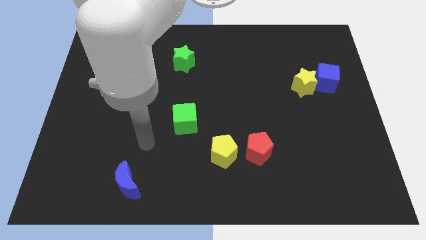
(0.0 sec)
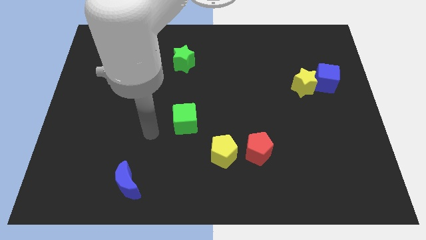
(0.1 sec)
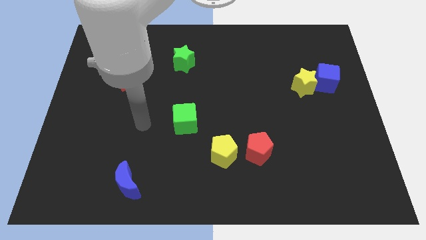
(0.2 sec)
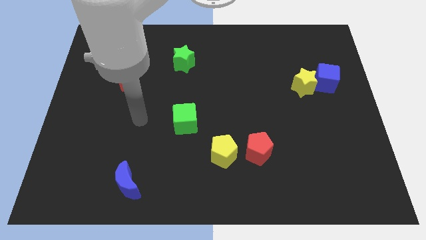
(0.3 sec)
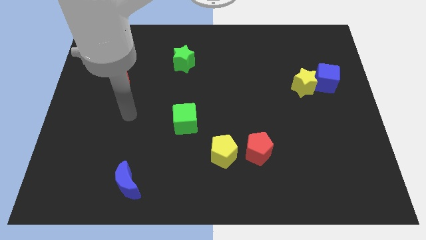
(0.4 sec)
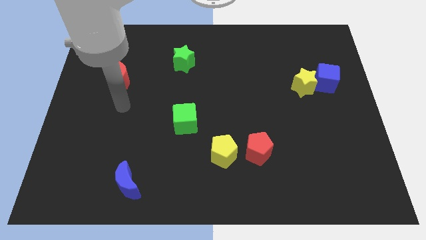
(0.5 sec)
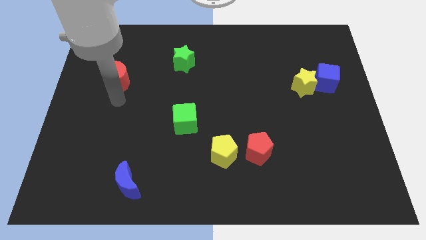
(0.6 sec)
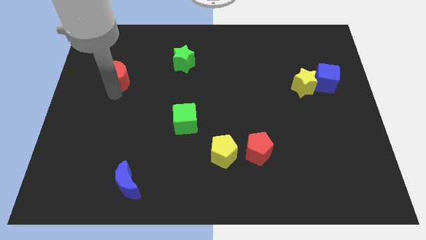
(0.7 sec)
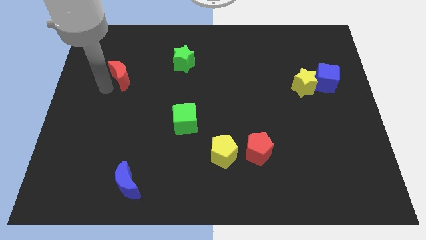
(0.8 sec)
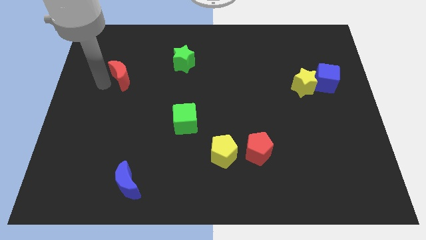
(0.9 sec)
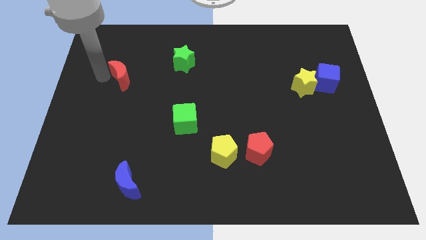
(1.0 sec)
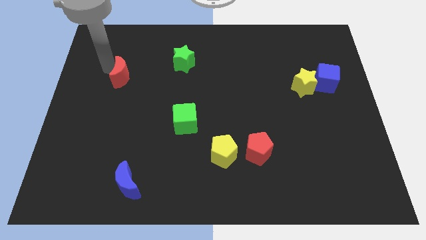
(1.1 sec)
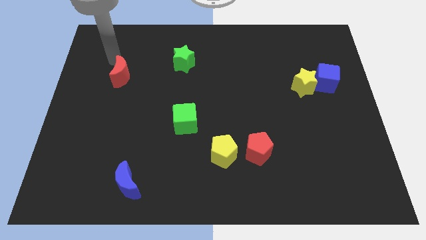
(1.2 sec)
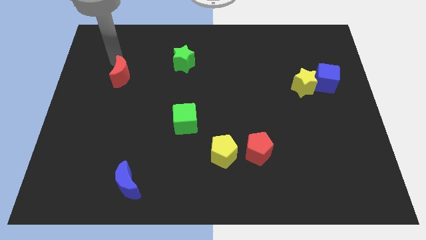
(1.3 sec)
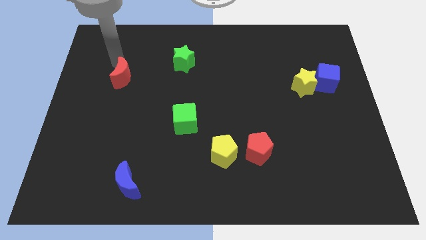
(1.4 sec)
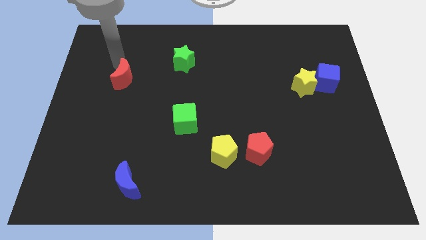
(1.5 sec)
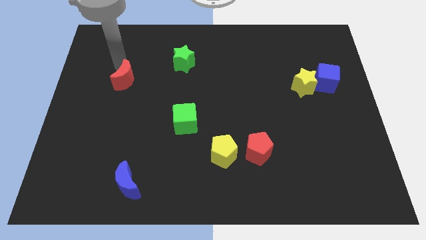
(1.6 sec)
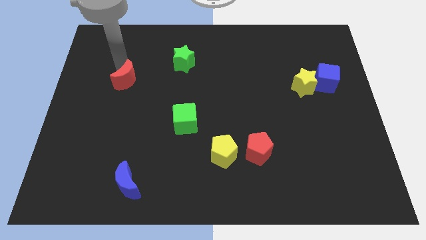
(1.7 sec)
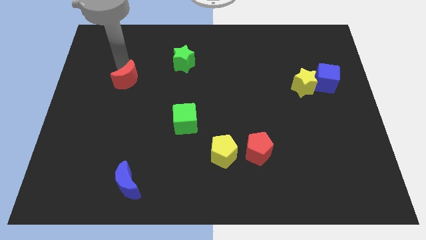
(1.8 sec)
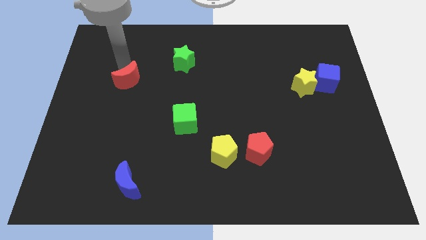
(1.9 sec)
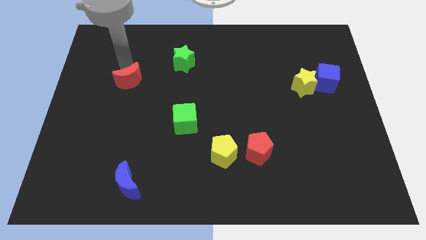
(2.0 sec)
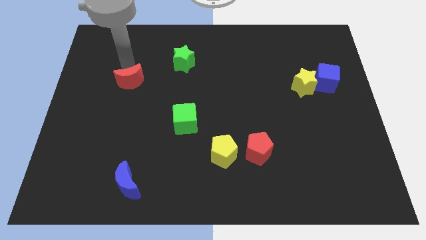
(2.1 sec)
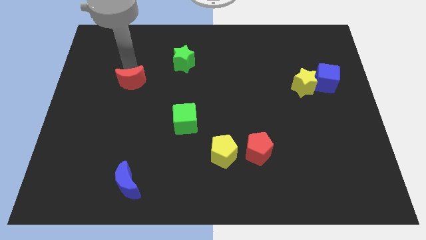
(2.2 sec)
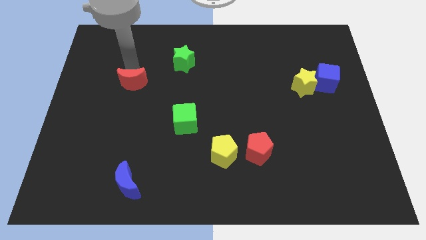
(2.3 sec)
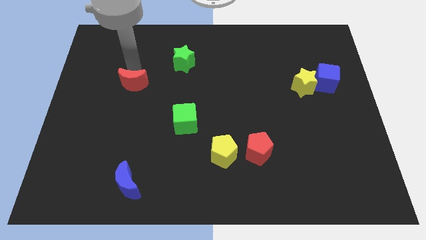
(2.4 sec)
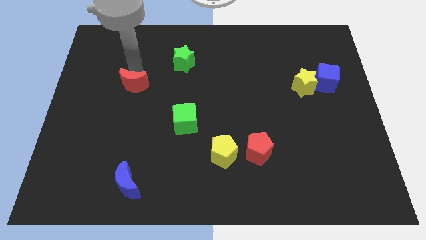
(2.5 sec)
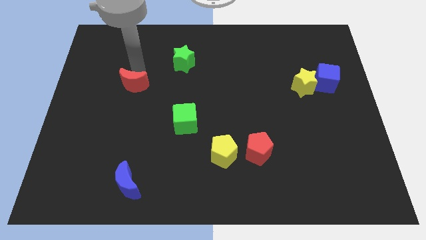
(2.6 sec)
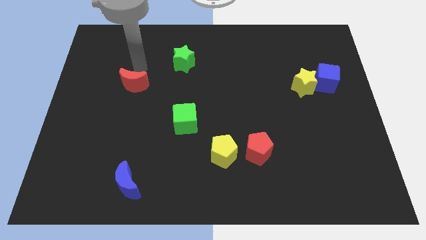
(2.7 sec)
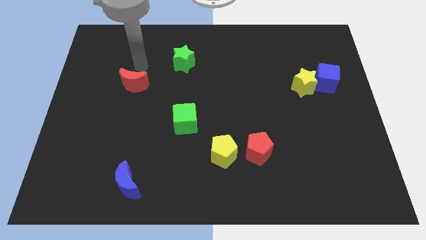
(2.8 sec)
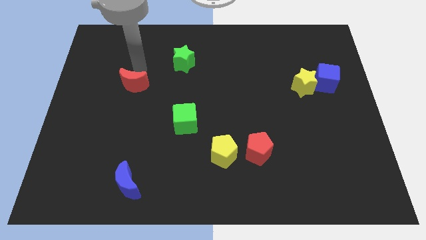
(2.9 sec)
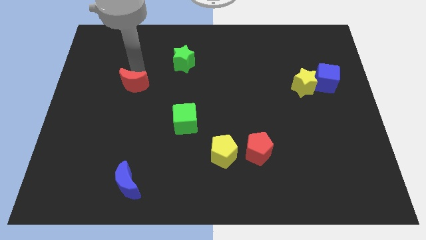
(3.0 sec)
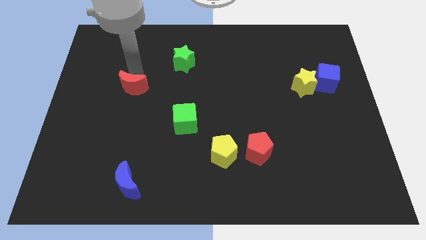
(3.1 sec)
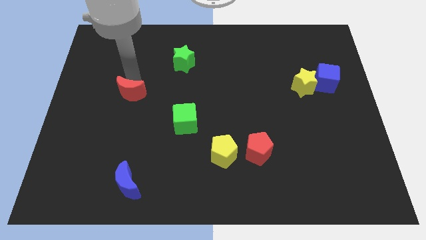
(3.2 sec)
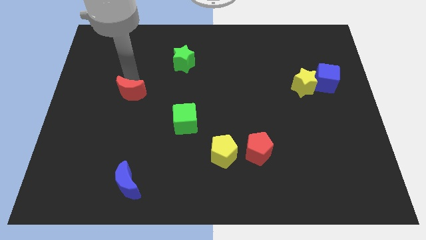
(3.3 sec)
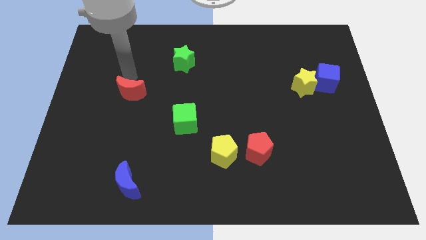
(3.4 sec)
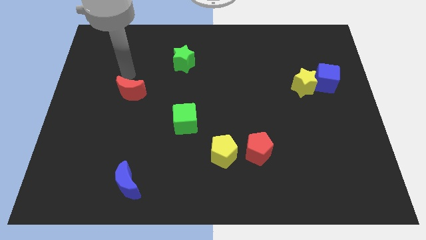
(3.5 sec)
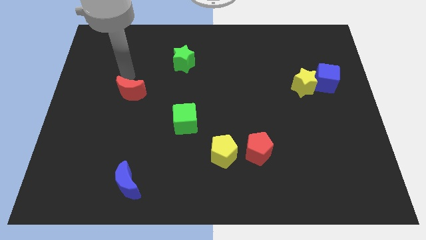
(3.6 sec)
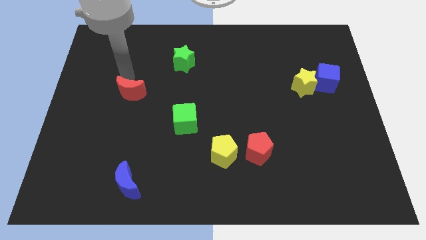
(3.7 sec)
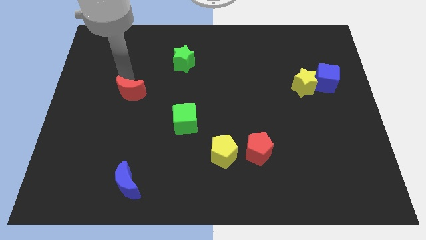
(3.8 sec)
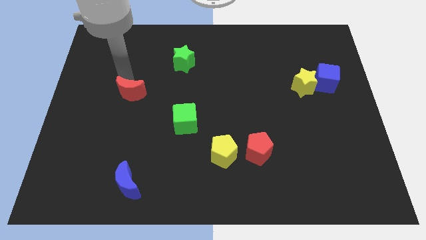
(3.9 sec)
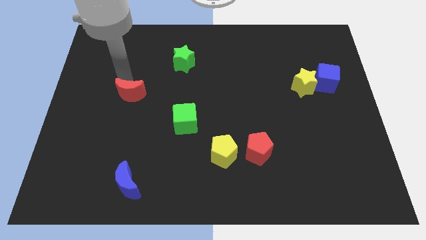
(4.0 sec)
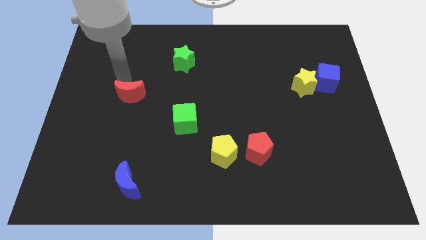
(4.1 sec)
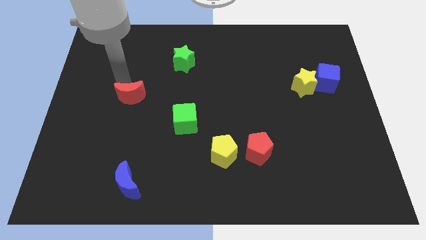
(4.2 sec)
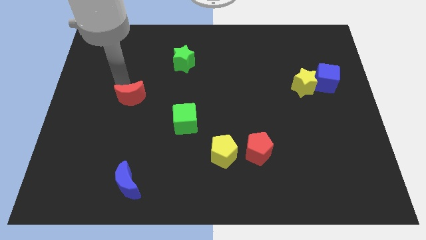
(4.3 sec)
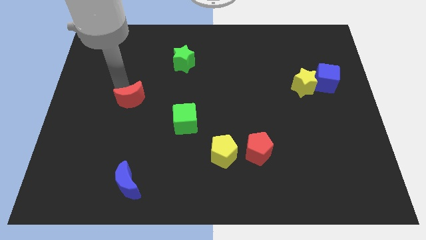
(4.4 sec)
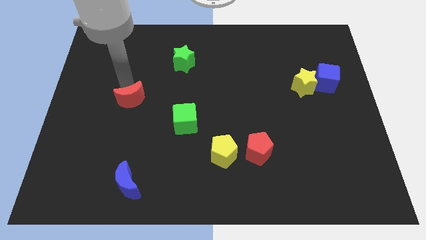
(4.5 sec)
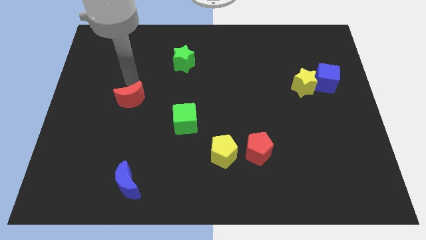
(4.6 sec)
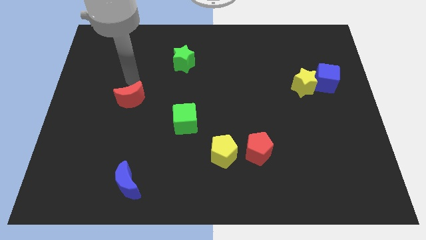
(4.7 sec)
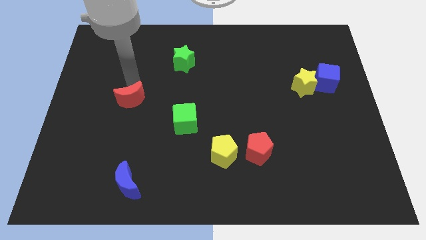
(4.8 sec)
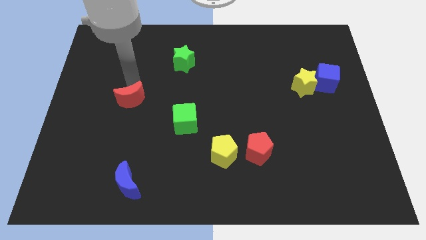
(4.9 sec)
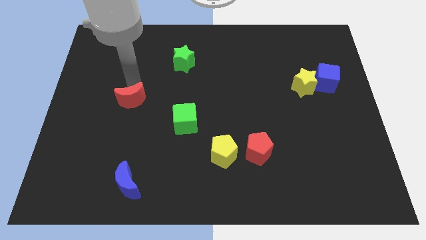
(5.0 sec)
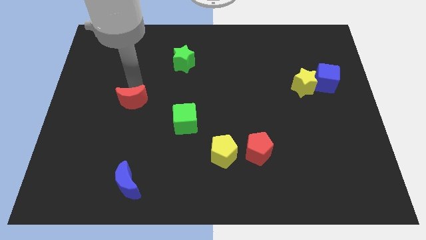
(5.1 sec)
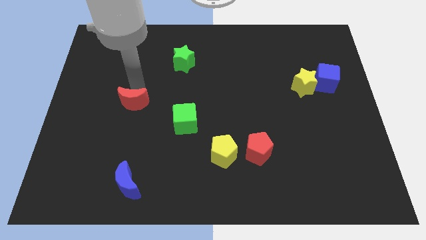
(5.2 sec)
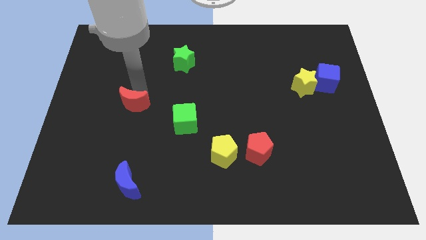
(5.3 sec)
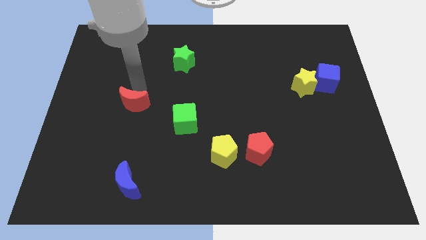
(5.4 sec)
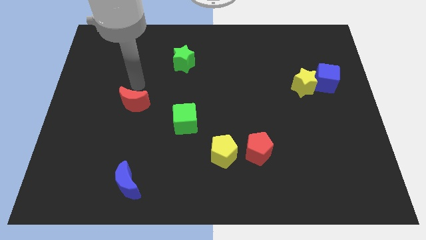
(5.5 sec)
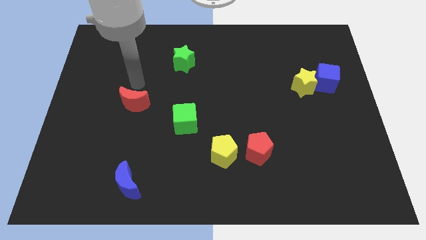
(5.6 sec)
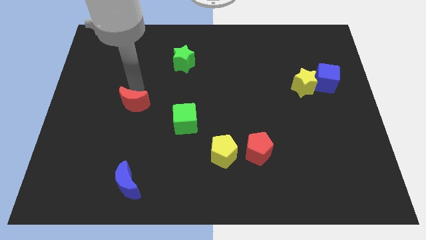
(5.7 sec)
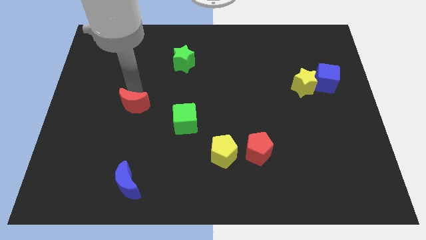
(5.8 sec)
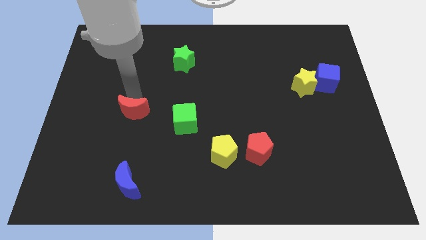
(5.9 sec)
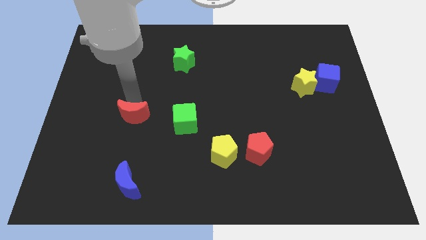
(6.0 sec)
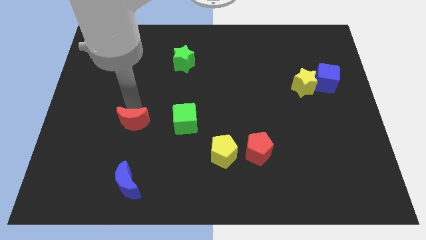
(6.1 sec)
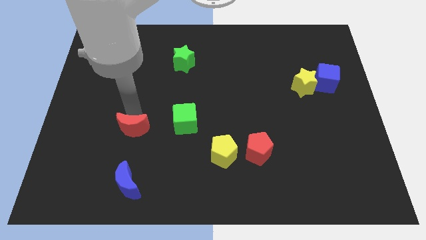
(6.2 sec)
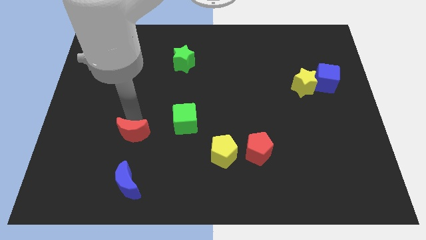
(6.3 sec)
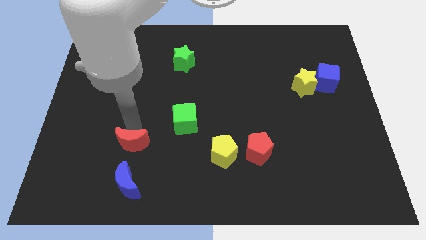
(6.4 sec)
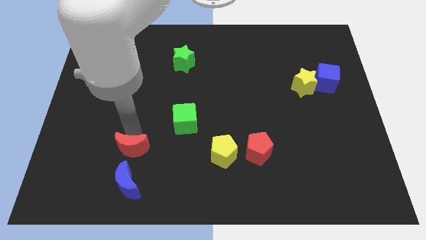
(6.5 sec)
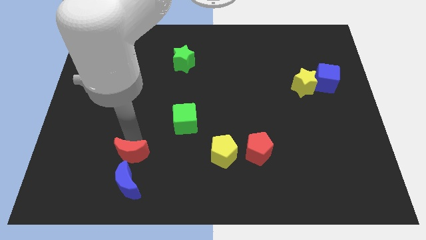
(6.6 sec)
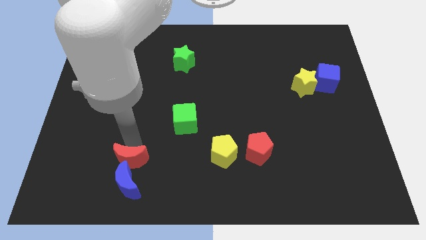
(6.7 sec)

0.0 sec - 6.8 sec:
push the red moon close to the blue moon
